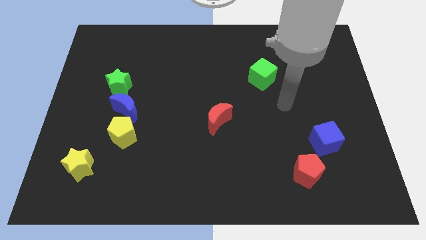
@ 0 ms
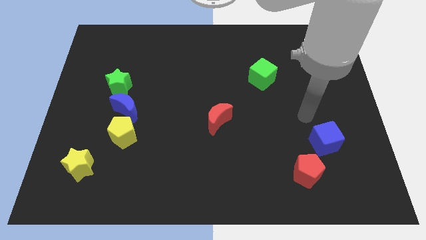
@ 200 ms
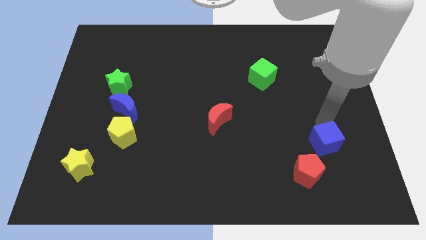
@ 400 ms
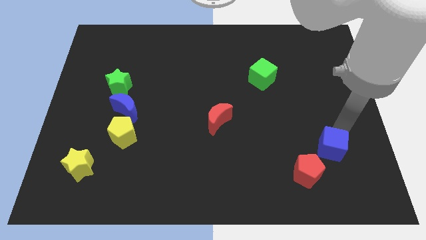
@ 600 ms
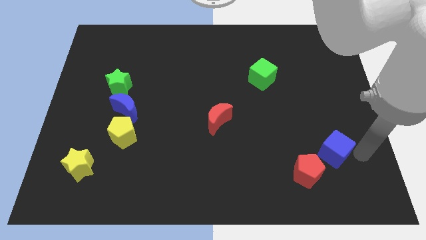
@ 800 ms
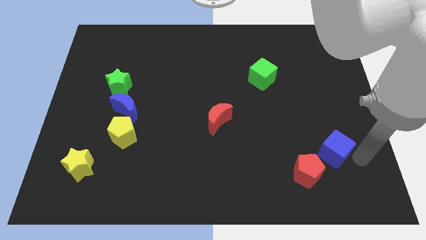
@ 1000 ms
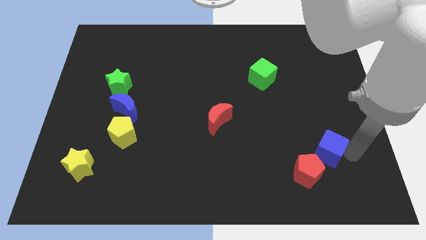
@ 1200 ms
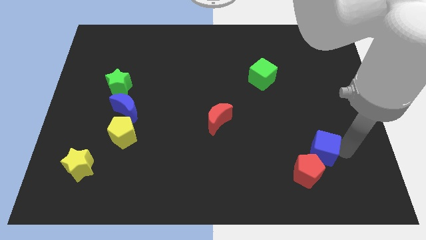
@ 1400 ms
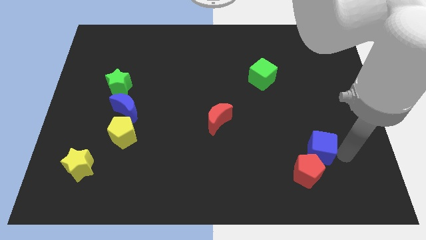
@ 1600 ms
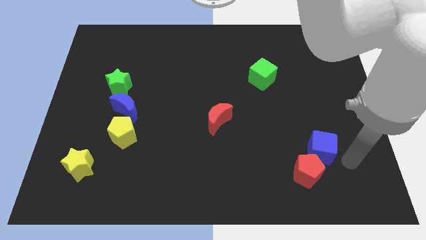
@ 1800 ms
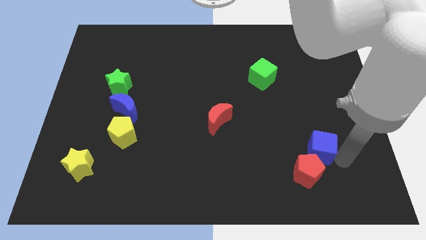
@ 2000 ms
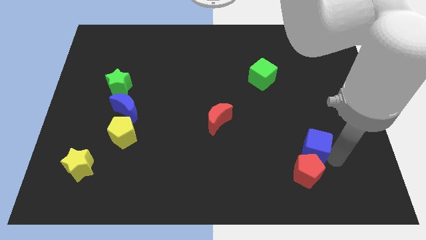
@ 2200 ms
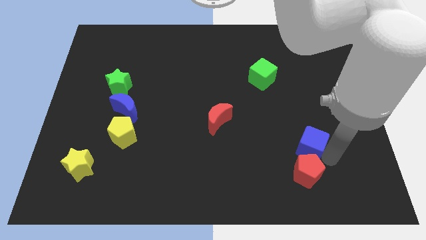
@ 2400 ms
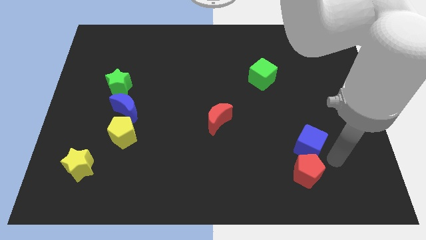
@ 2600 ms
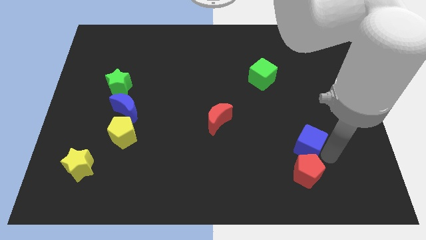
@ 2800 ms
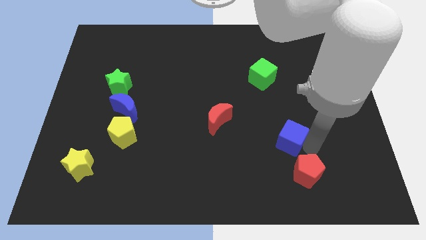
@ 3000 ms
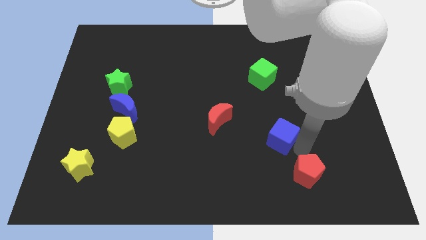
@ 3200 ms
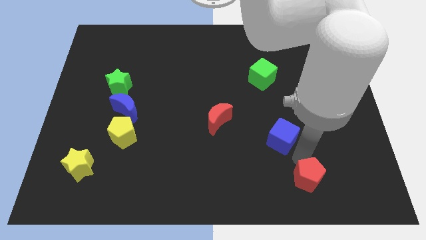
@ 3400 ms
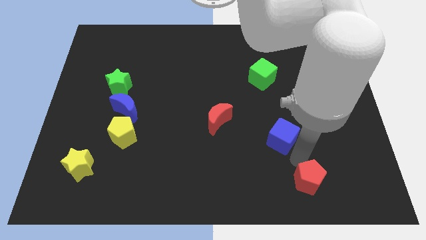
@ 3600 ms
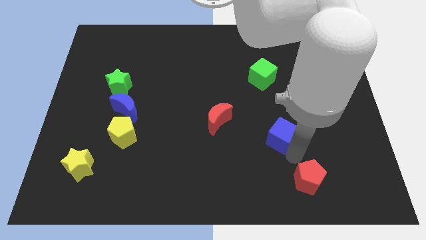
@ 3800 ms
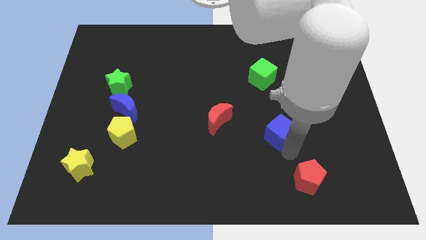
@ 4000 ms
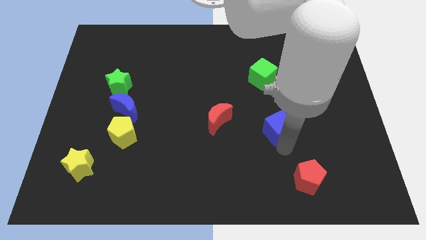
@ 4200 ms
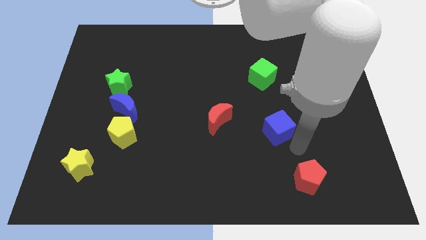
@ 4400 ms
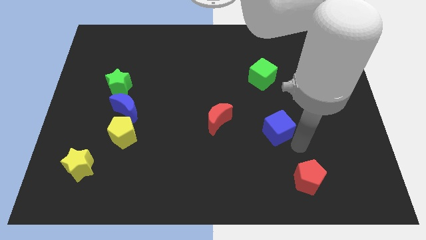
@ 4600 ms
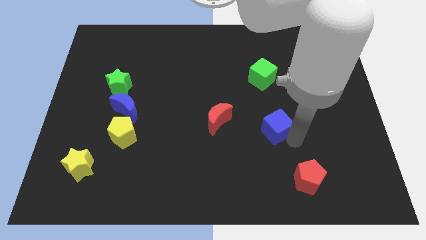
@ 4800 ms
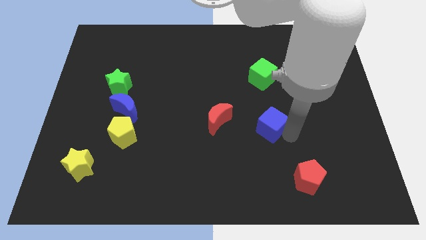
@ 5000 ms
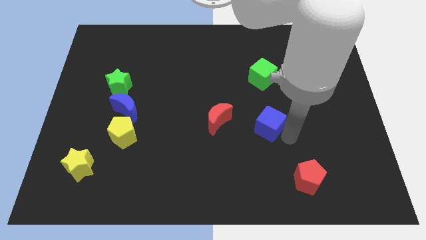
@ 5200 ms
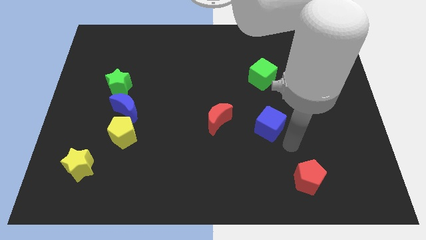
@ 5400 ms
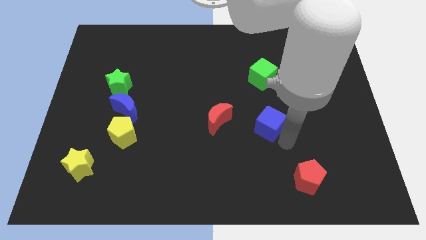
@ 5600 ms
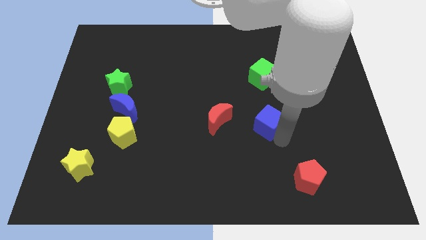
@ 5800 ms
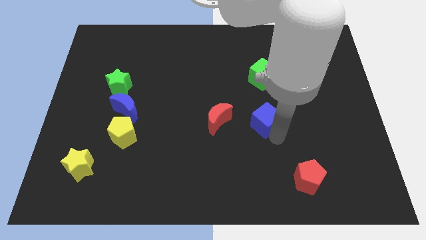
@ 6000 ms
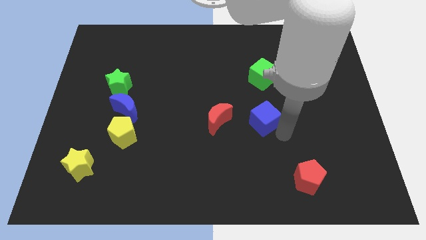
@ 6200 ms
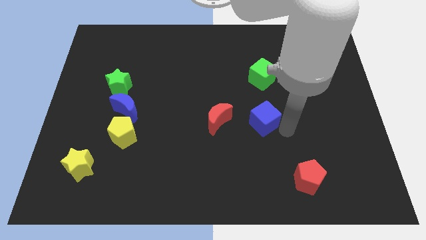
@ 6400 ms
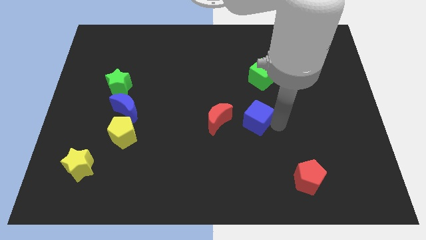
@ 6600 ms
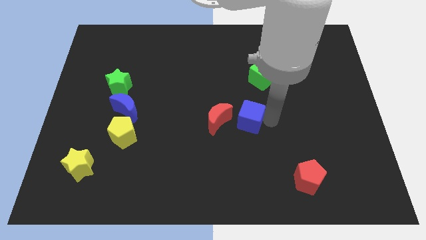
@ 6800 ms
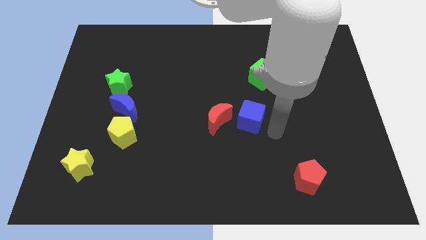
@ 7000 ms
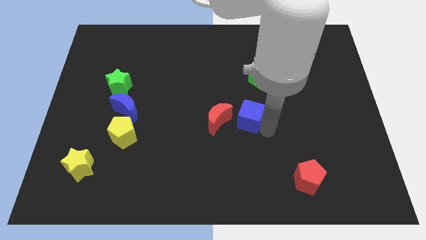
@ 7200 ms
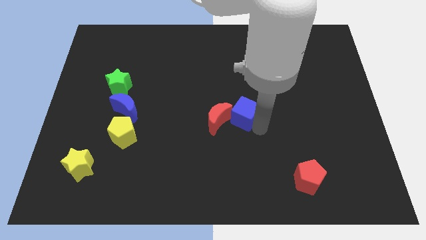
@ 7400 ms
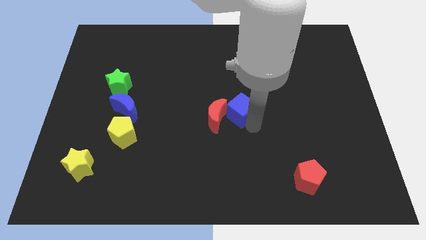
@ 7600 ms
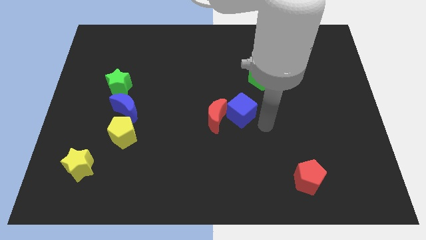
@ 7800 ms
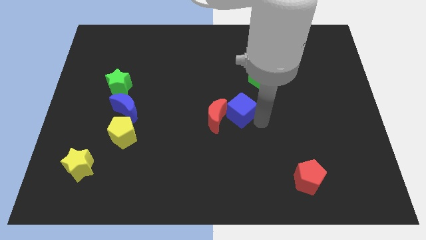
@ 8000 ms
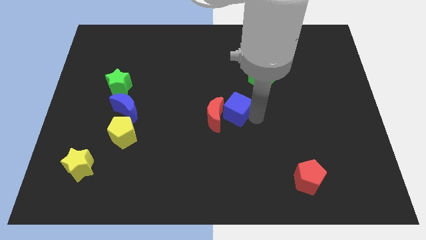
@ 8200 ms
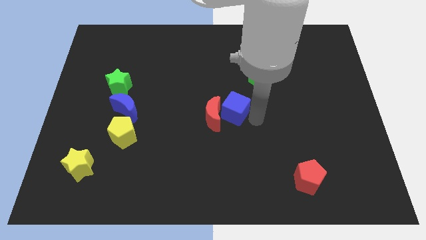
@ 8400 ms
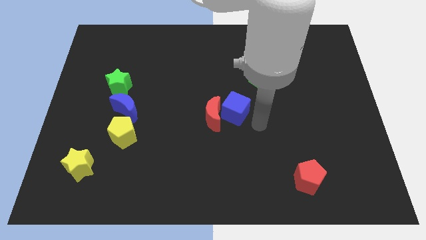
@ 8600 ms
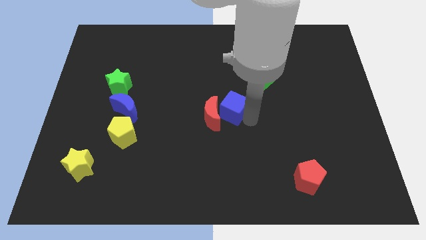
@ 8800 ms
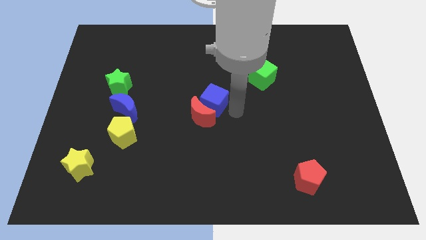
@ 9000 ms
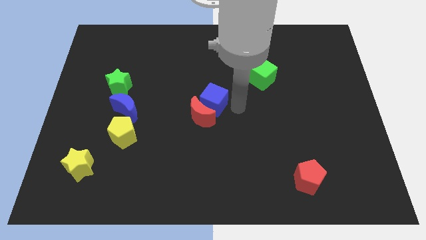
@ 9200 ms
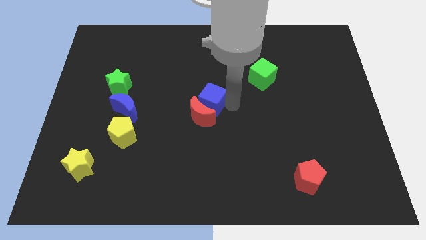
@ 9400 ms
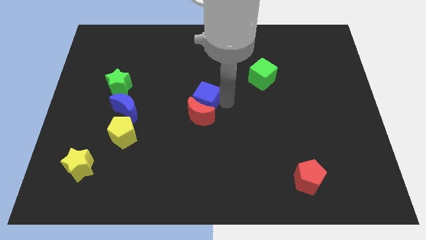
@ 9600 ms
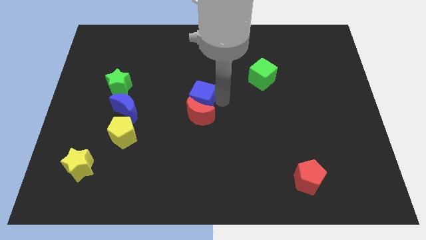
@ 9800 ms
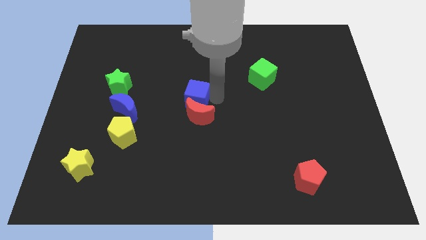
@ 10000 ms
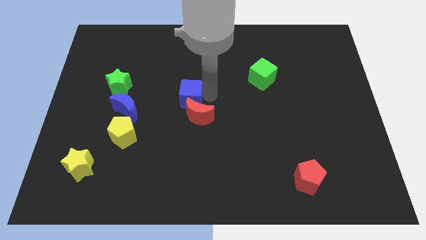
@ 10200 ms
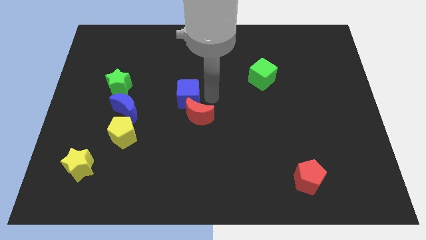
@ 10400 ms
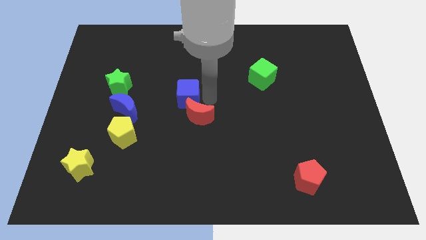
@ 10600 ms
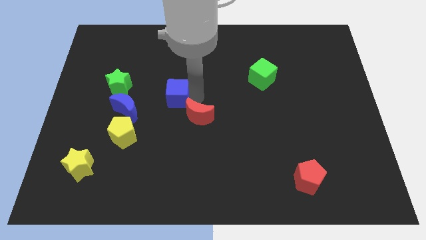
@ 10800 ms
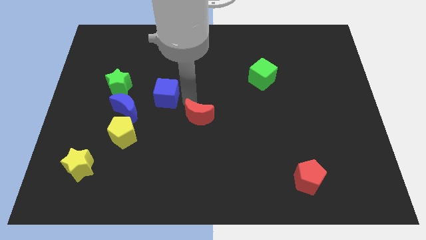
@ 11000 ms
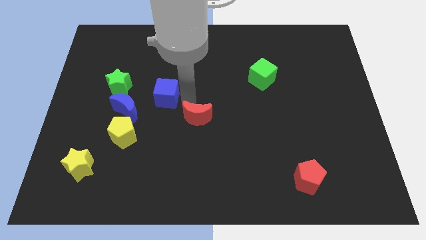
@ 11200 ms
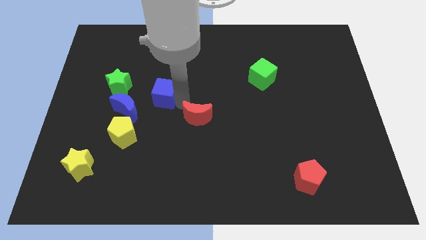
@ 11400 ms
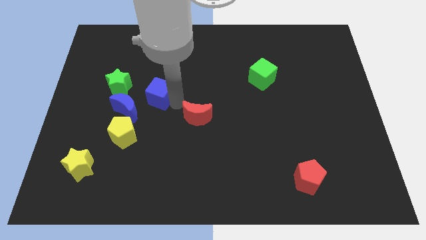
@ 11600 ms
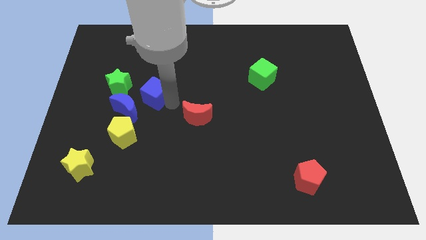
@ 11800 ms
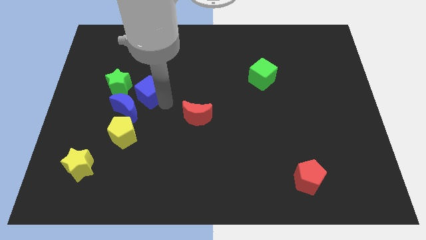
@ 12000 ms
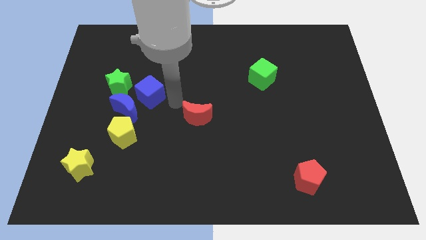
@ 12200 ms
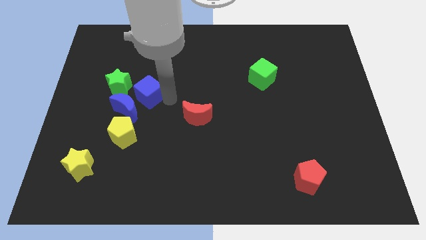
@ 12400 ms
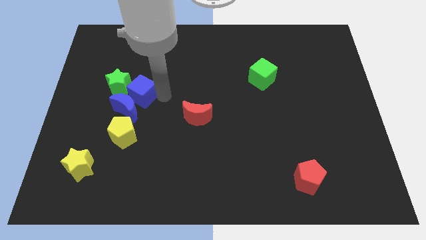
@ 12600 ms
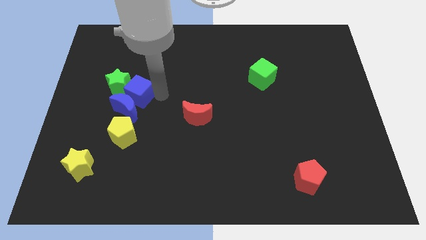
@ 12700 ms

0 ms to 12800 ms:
slide the blue cube to the green star

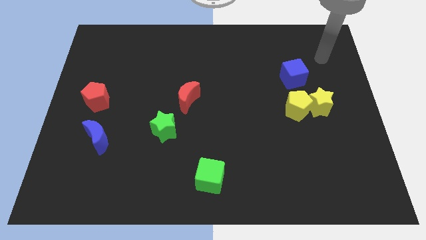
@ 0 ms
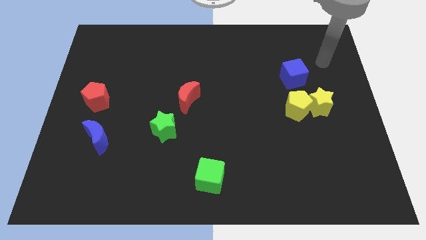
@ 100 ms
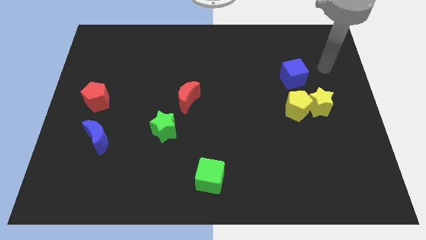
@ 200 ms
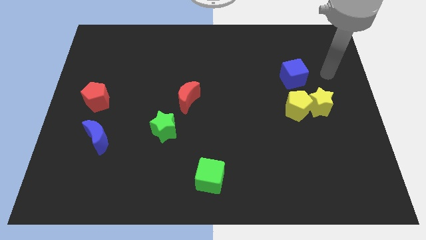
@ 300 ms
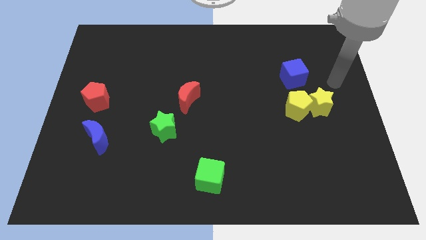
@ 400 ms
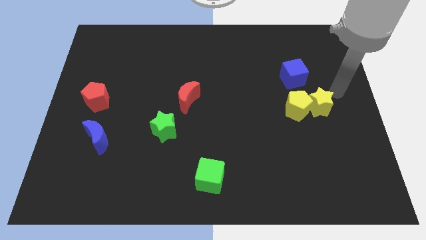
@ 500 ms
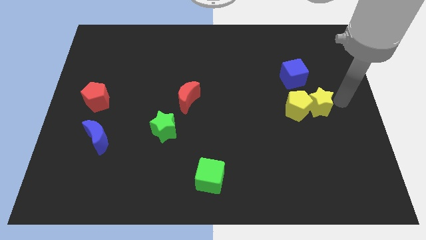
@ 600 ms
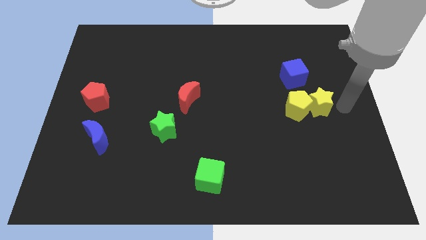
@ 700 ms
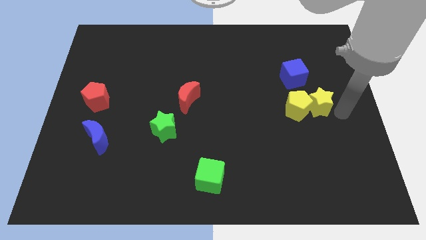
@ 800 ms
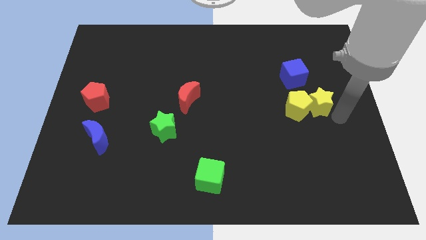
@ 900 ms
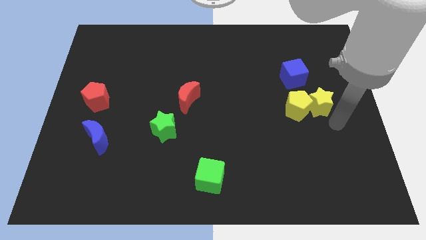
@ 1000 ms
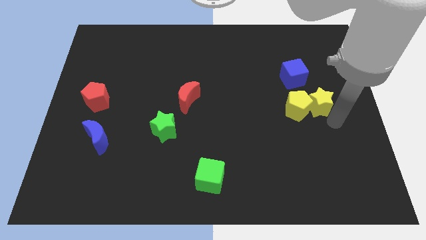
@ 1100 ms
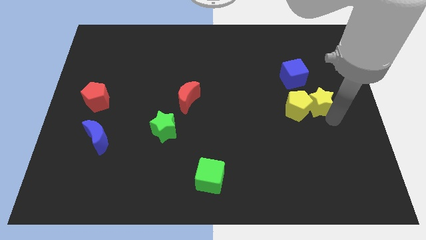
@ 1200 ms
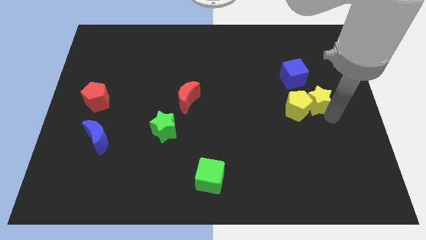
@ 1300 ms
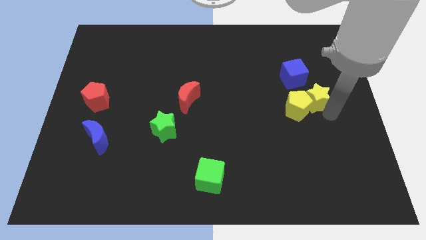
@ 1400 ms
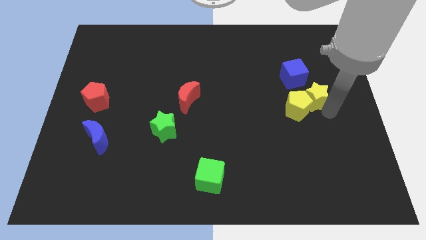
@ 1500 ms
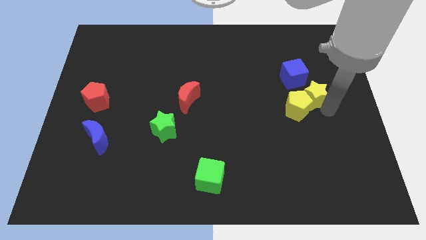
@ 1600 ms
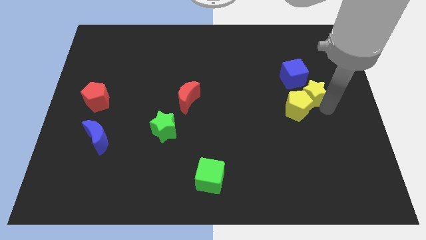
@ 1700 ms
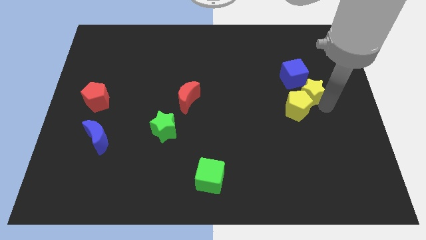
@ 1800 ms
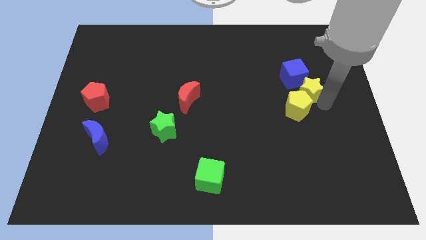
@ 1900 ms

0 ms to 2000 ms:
slide the yellow star next to the blue cube
